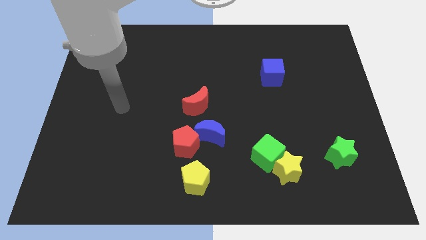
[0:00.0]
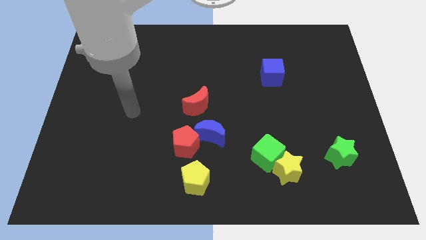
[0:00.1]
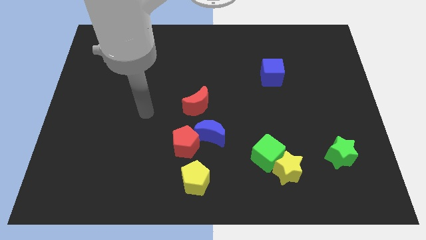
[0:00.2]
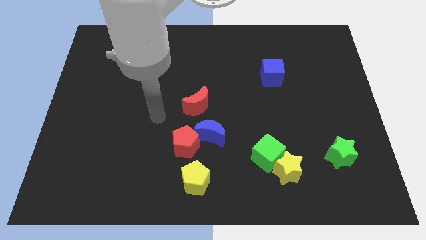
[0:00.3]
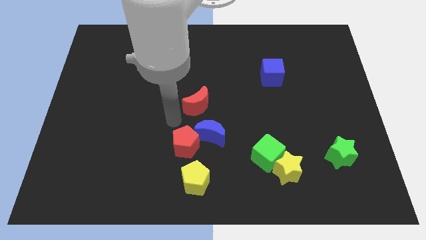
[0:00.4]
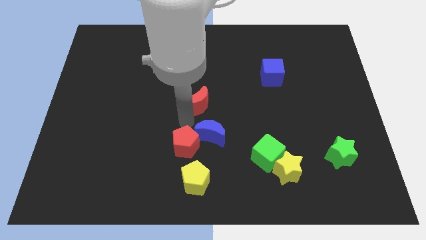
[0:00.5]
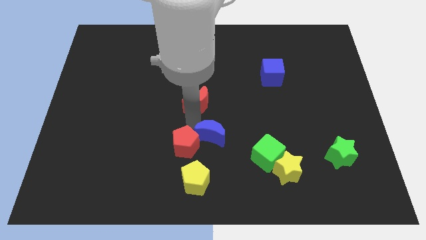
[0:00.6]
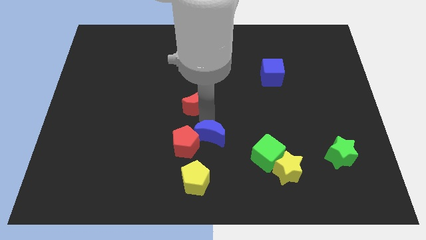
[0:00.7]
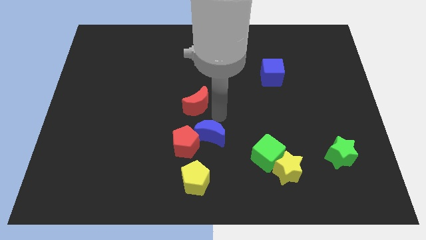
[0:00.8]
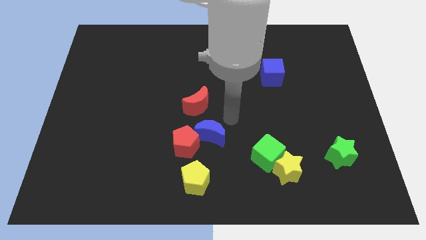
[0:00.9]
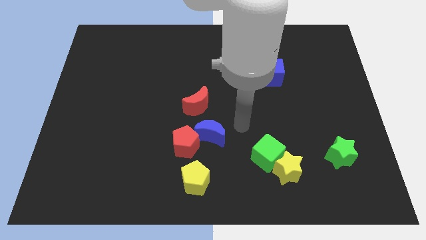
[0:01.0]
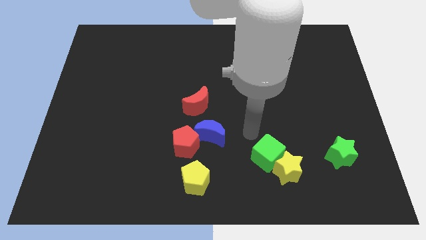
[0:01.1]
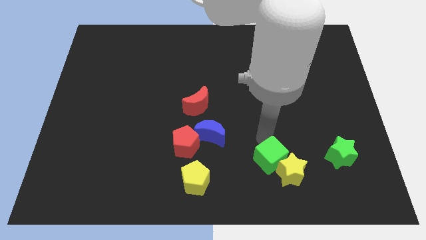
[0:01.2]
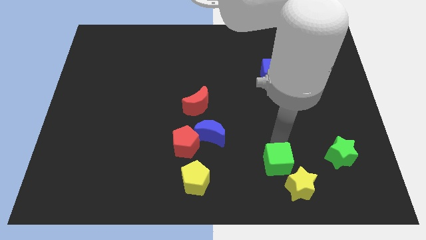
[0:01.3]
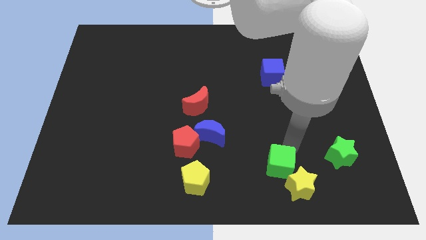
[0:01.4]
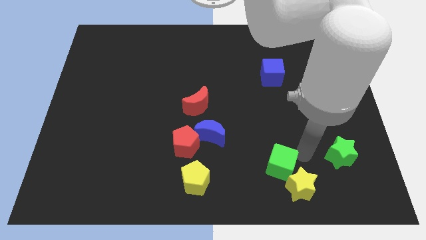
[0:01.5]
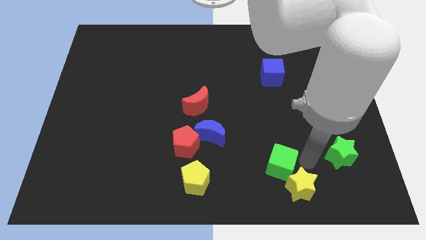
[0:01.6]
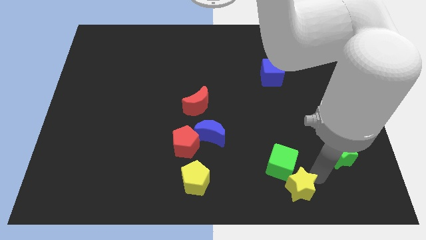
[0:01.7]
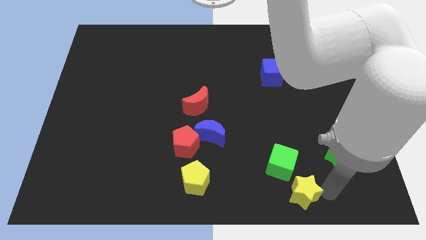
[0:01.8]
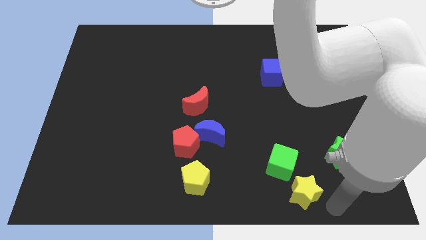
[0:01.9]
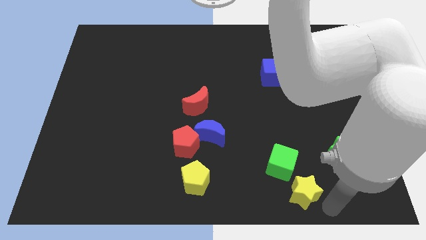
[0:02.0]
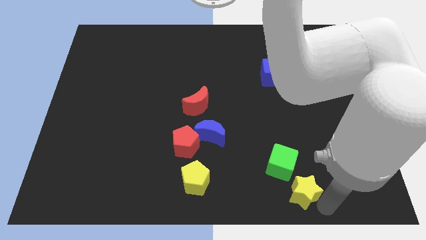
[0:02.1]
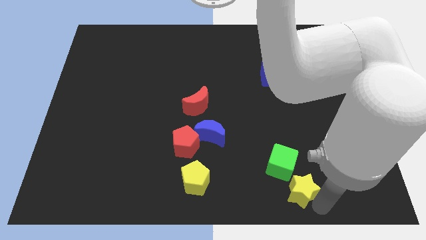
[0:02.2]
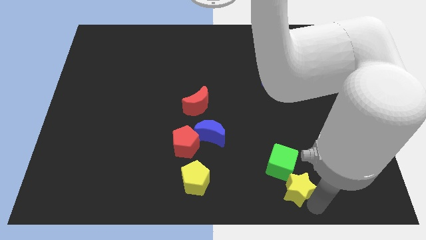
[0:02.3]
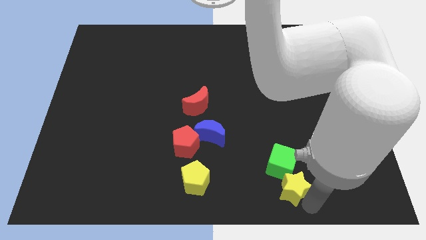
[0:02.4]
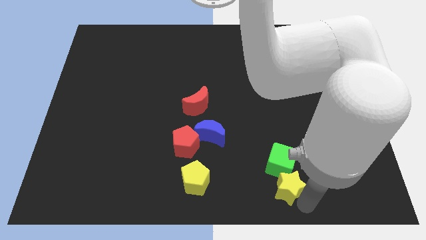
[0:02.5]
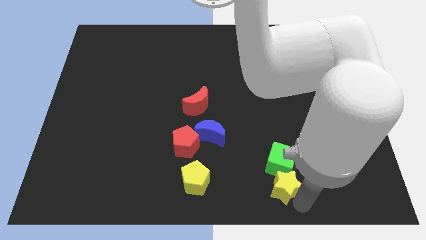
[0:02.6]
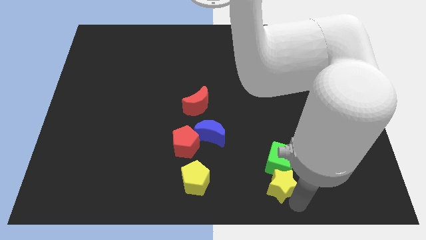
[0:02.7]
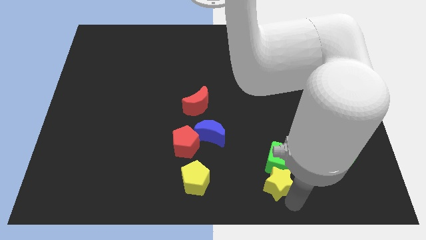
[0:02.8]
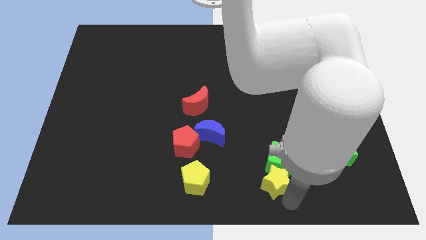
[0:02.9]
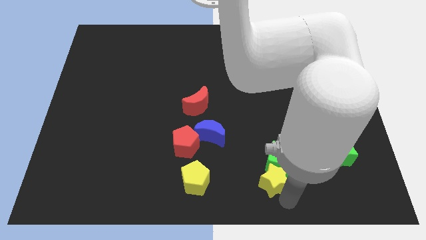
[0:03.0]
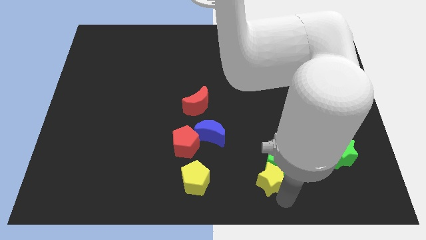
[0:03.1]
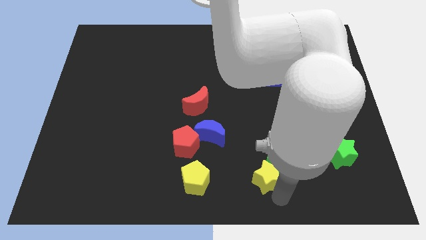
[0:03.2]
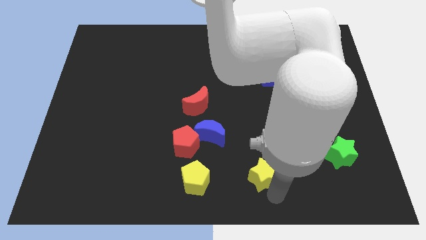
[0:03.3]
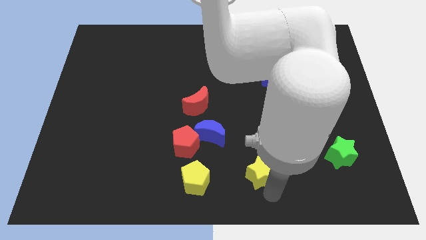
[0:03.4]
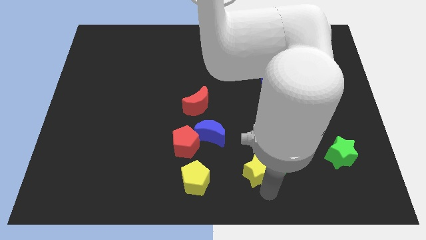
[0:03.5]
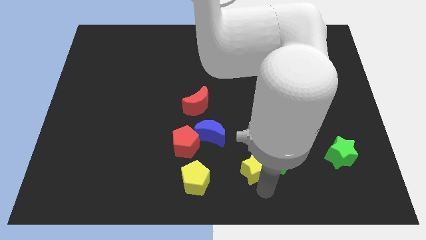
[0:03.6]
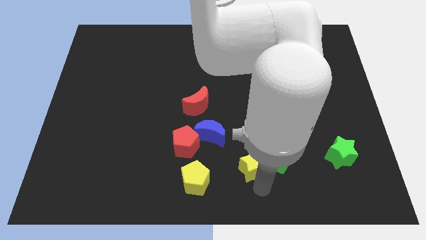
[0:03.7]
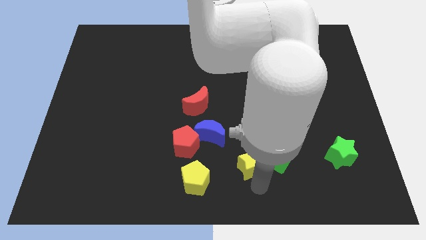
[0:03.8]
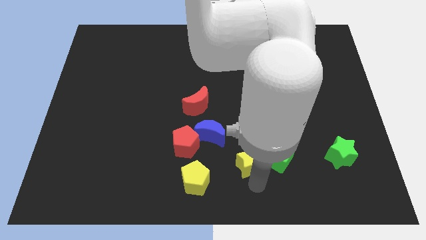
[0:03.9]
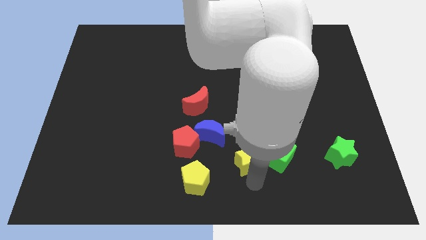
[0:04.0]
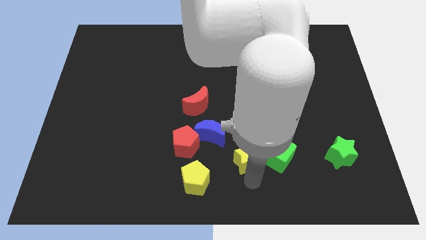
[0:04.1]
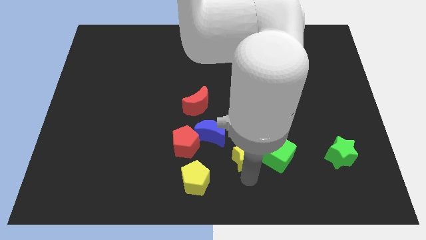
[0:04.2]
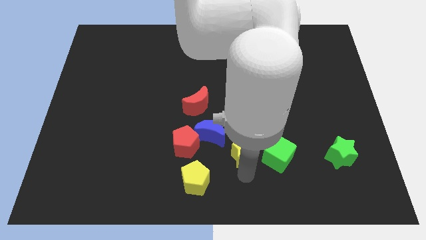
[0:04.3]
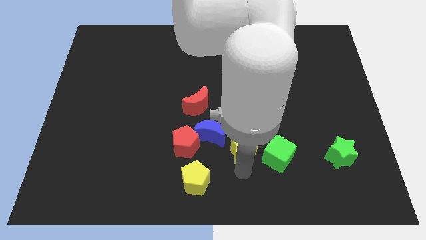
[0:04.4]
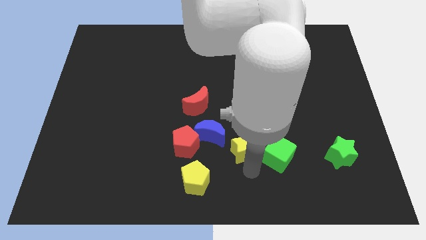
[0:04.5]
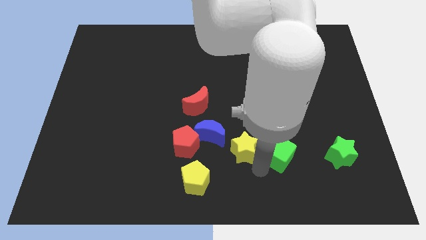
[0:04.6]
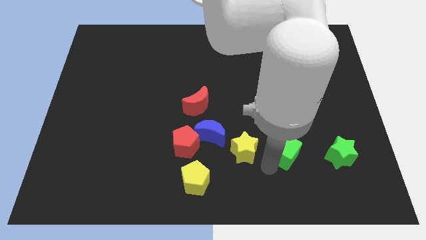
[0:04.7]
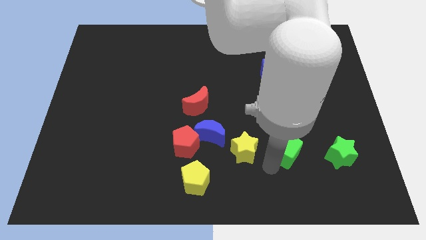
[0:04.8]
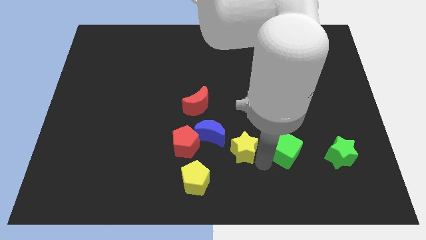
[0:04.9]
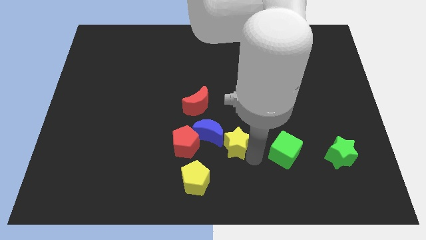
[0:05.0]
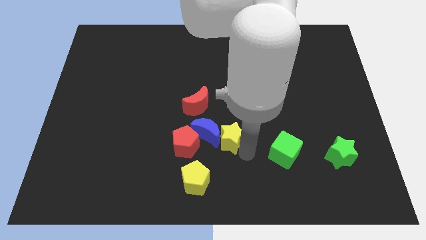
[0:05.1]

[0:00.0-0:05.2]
put the yellow star close to the blue moon

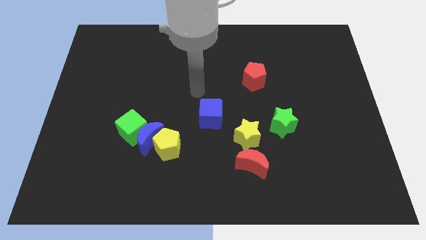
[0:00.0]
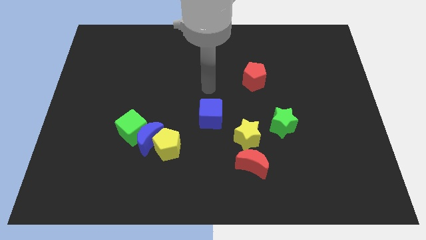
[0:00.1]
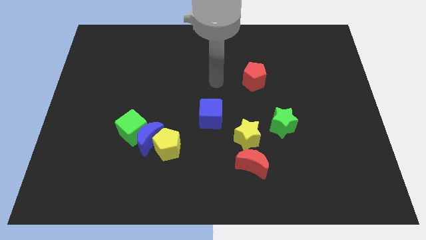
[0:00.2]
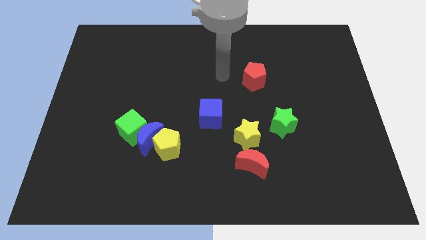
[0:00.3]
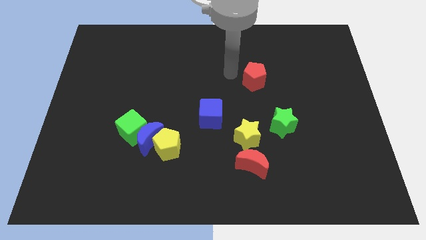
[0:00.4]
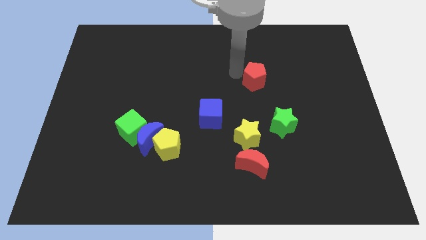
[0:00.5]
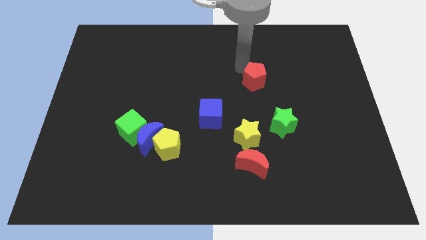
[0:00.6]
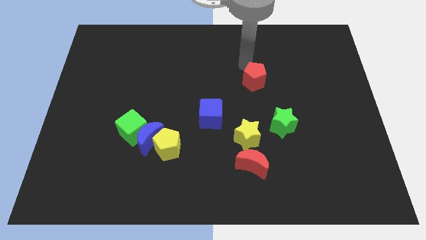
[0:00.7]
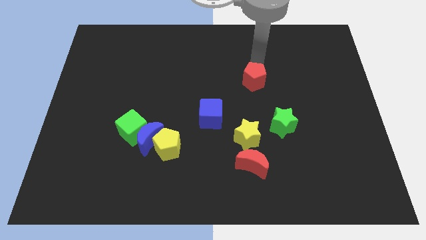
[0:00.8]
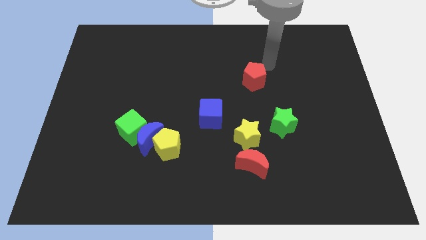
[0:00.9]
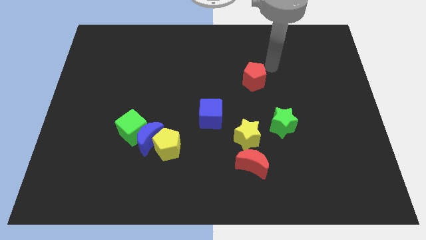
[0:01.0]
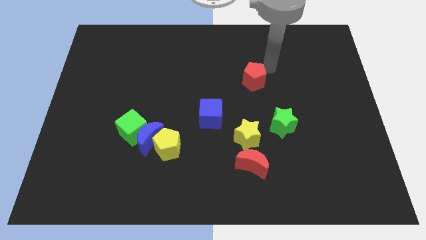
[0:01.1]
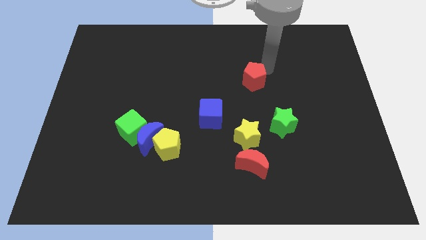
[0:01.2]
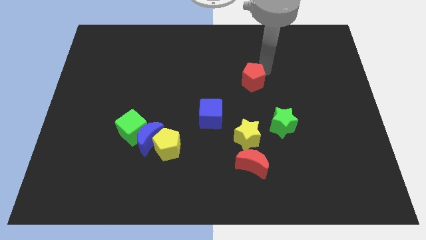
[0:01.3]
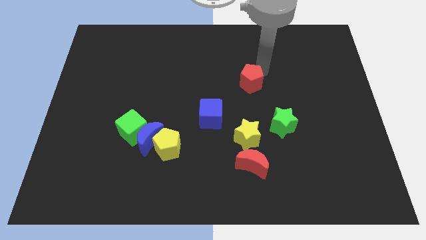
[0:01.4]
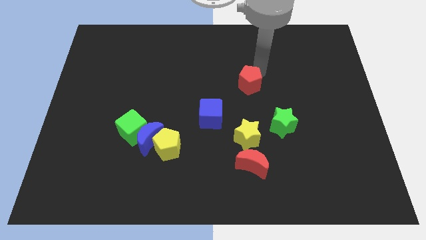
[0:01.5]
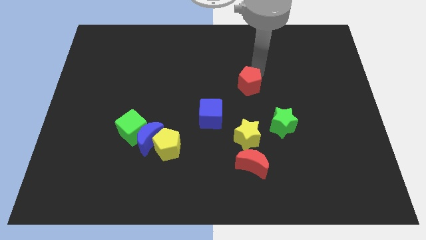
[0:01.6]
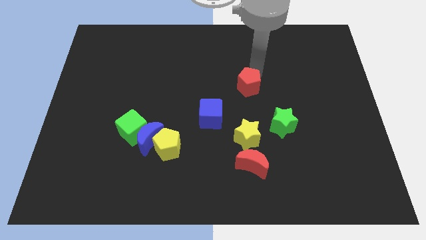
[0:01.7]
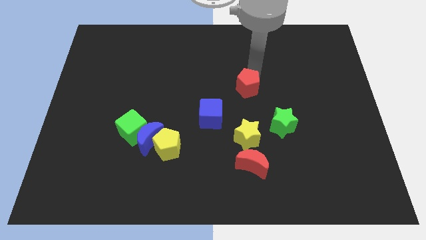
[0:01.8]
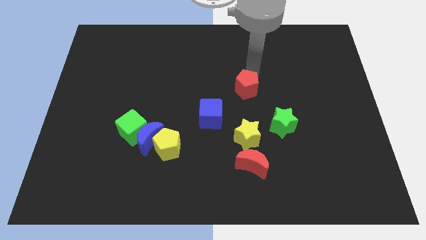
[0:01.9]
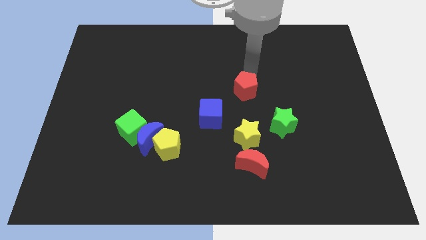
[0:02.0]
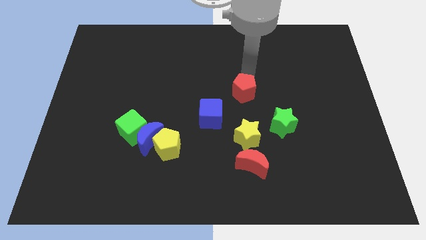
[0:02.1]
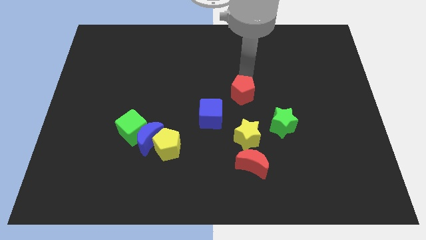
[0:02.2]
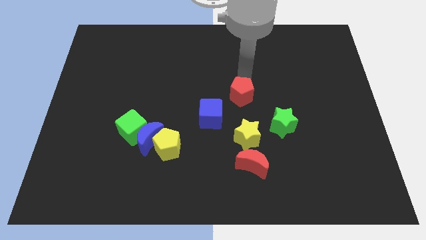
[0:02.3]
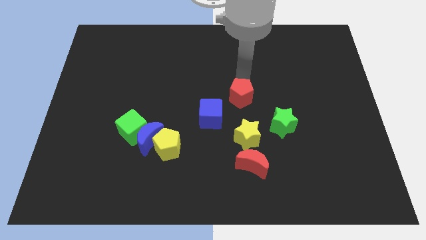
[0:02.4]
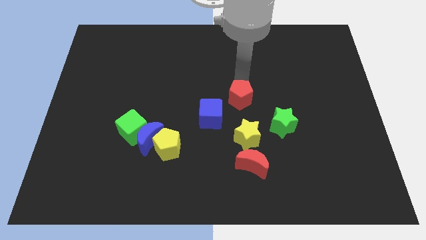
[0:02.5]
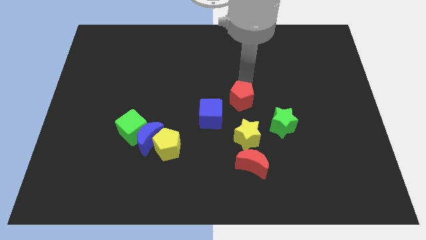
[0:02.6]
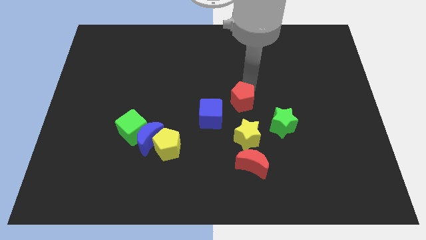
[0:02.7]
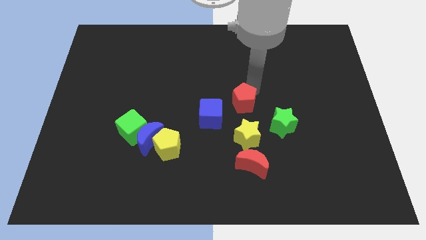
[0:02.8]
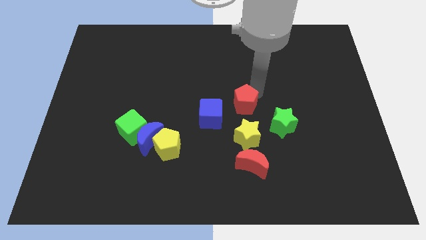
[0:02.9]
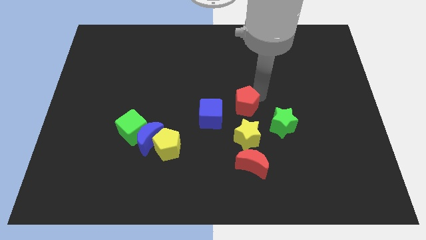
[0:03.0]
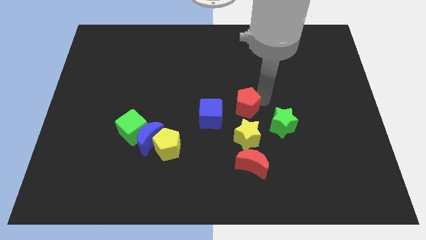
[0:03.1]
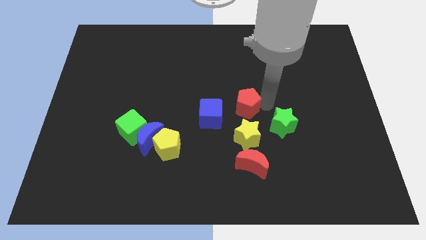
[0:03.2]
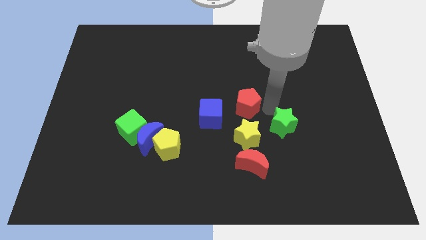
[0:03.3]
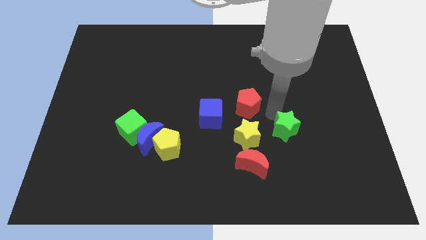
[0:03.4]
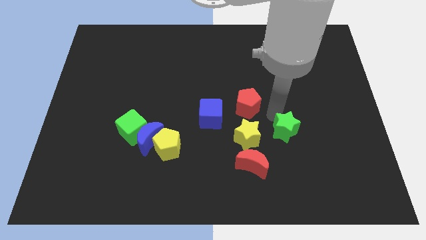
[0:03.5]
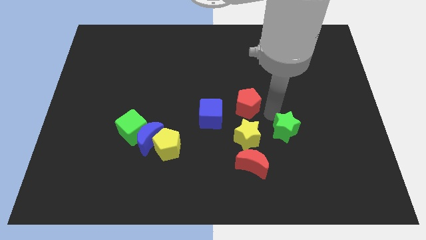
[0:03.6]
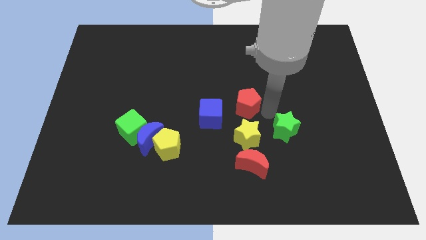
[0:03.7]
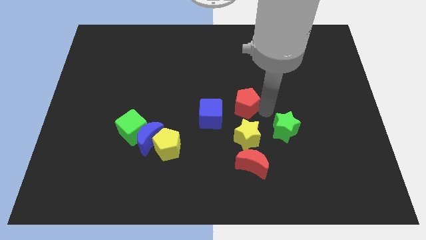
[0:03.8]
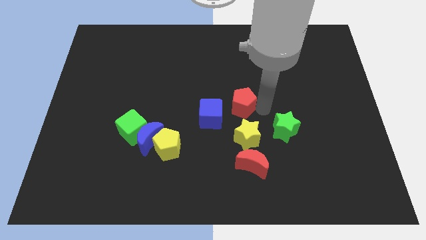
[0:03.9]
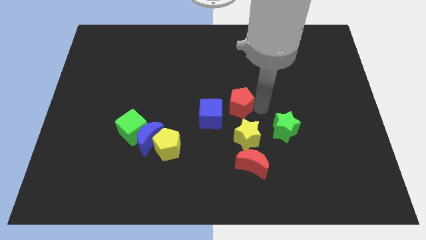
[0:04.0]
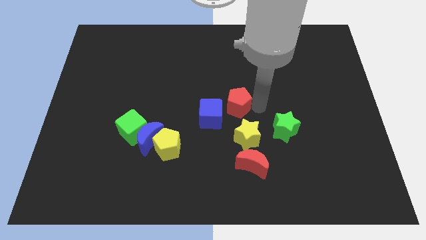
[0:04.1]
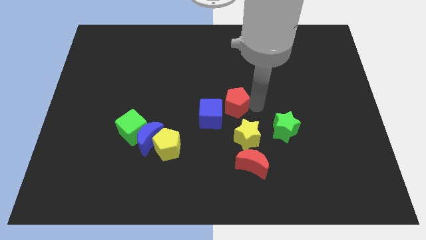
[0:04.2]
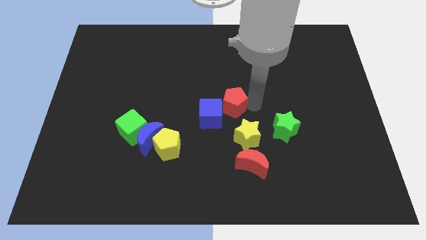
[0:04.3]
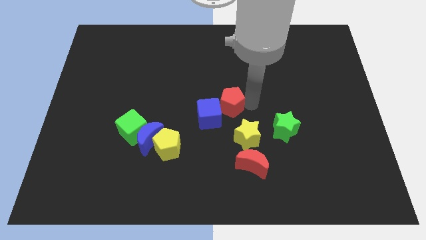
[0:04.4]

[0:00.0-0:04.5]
move the red pentagon towards the blue cube
